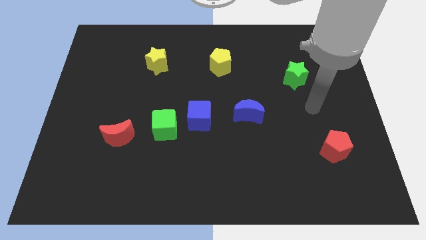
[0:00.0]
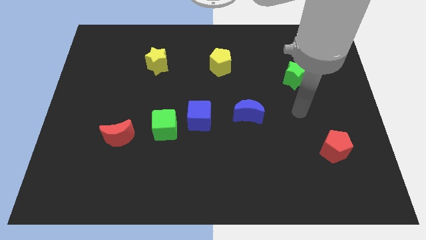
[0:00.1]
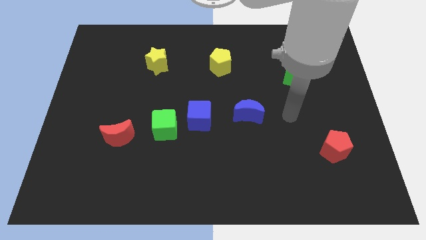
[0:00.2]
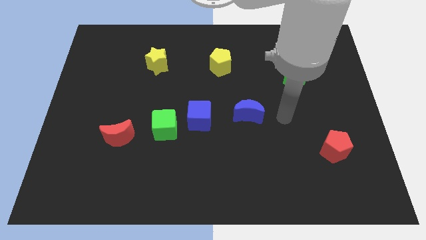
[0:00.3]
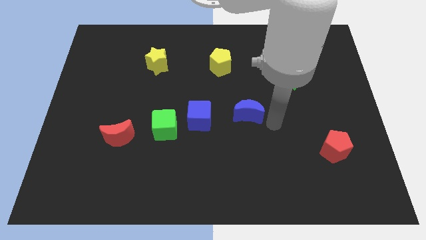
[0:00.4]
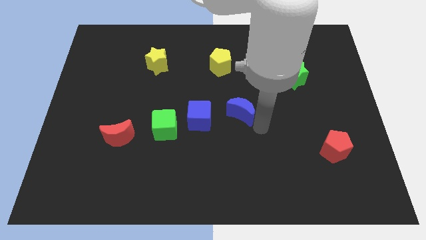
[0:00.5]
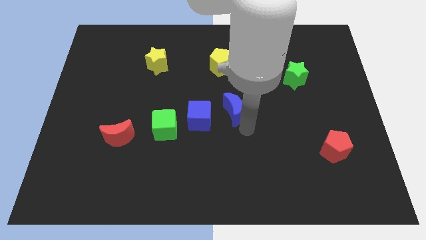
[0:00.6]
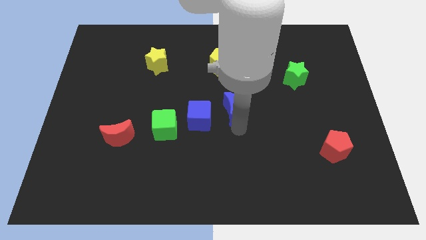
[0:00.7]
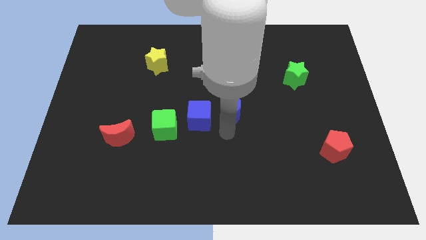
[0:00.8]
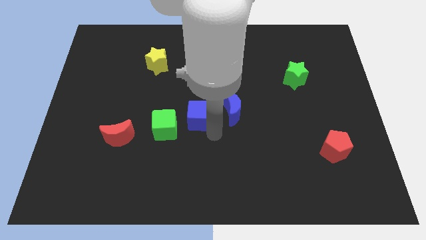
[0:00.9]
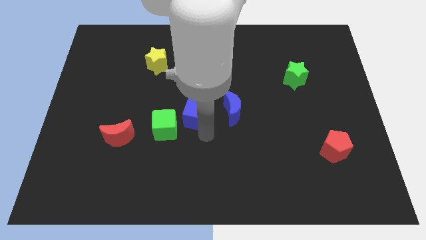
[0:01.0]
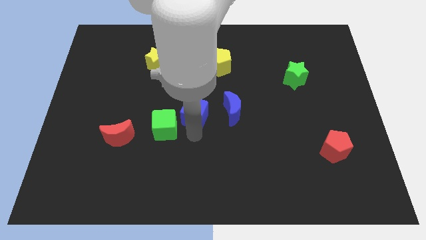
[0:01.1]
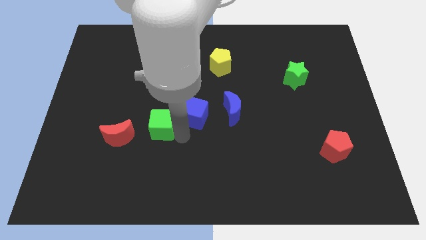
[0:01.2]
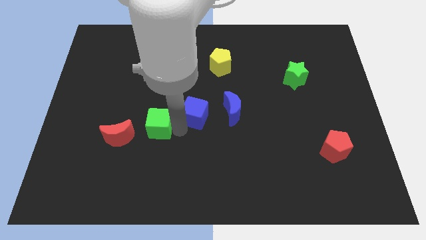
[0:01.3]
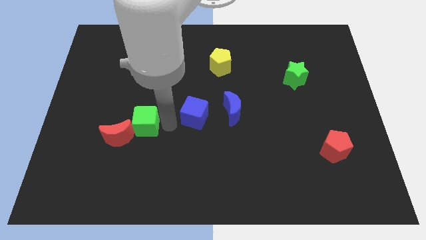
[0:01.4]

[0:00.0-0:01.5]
move the blue cube away from the green cube

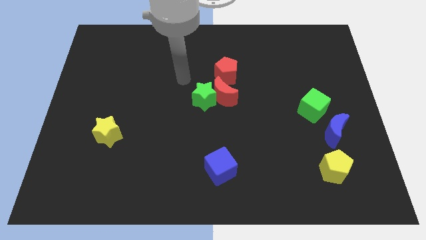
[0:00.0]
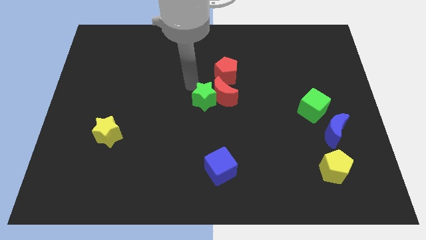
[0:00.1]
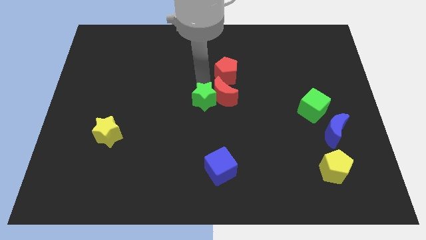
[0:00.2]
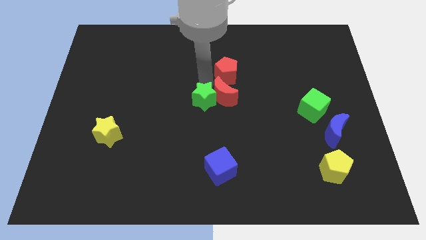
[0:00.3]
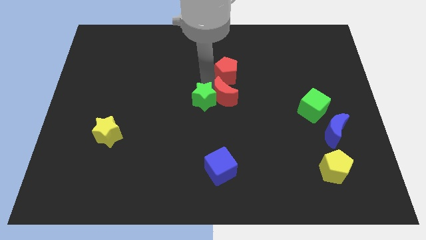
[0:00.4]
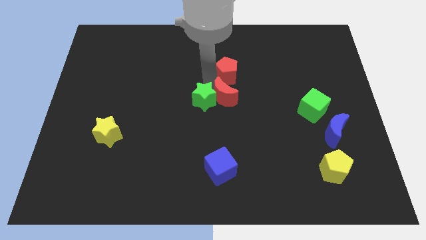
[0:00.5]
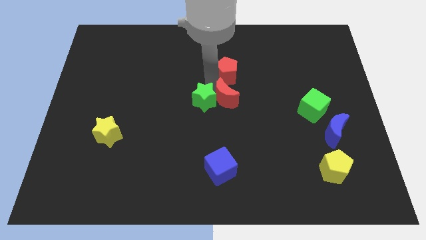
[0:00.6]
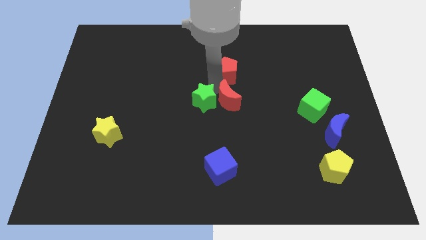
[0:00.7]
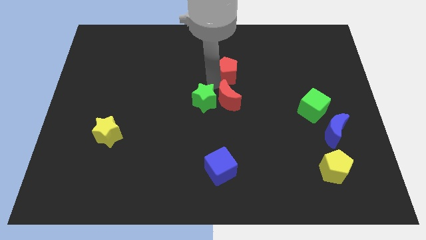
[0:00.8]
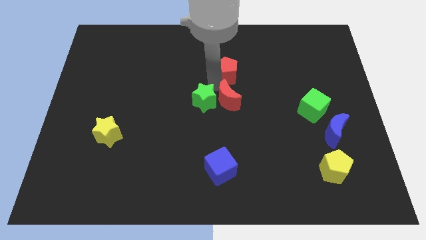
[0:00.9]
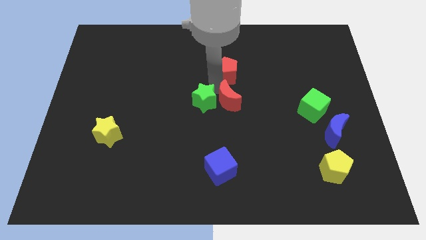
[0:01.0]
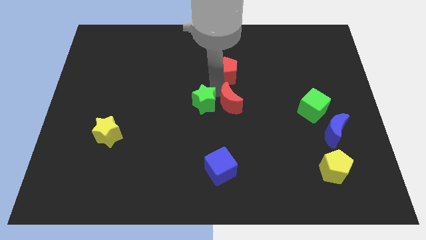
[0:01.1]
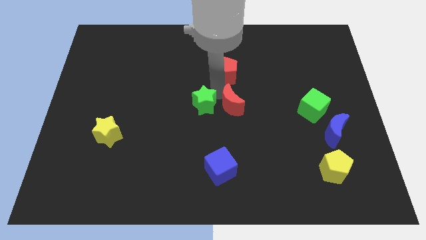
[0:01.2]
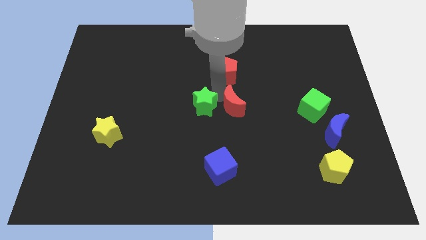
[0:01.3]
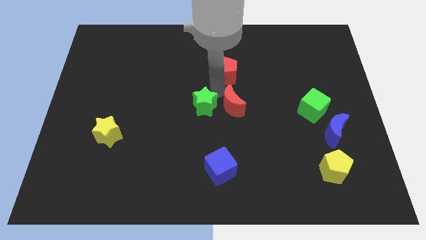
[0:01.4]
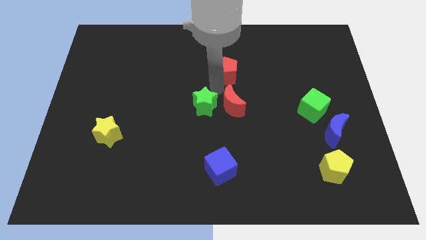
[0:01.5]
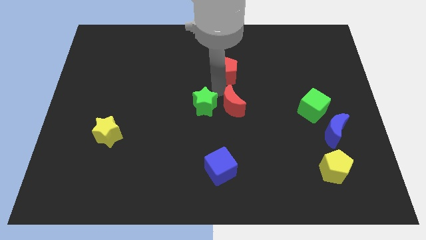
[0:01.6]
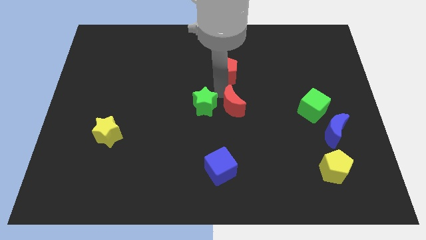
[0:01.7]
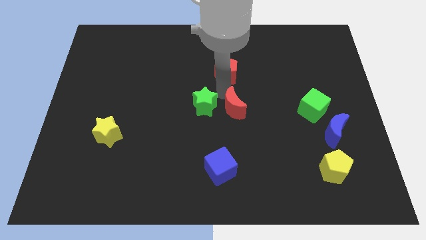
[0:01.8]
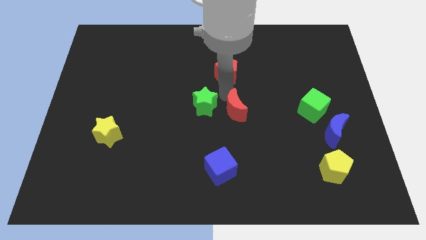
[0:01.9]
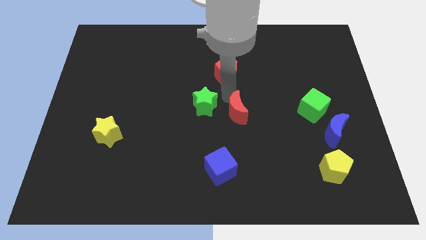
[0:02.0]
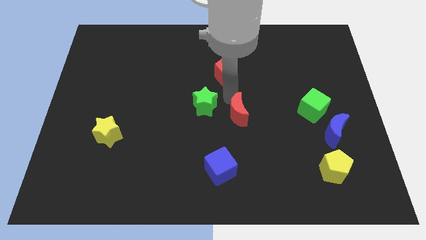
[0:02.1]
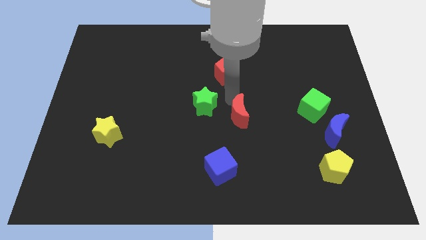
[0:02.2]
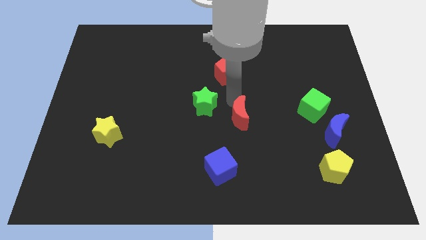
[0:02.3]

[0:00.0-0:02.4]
move the red moon away from the green star and red pentagon

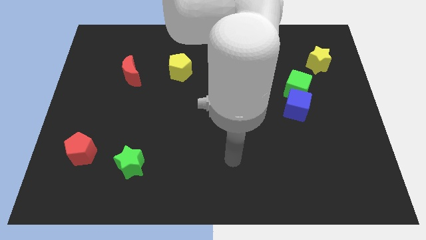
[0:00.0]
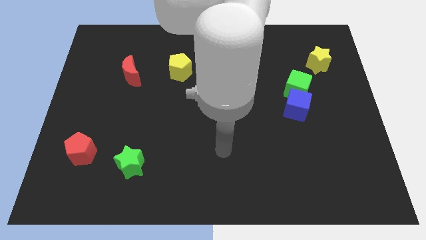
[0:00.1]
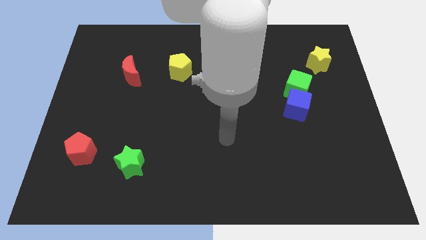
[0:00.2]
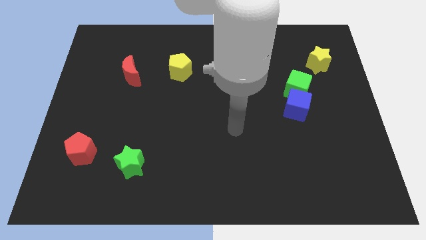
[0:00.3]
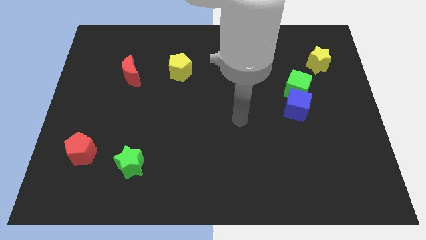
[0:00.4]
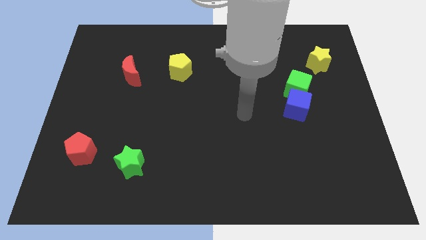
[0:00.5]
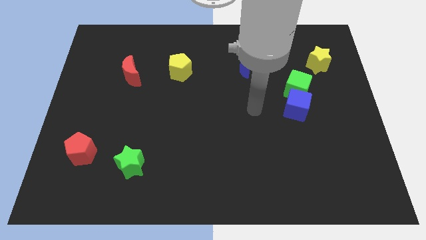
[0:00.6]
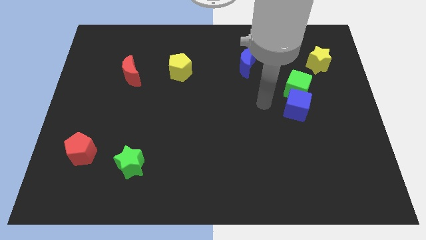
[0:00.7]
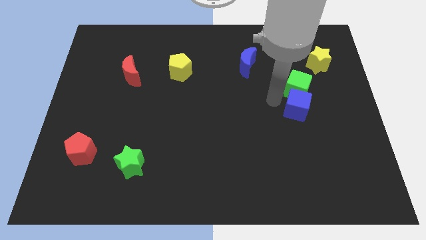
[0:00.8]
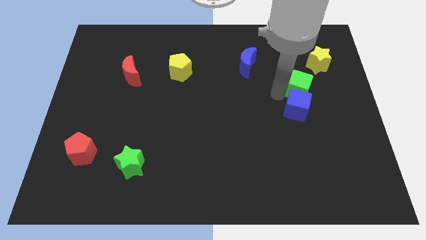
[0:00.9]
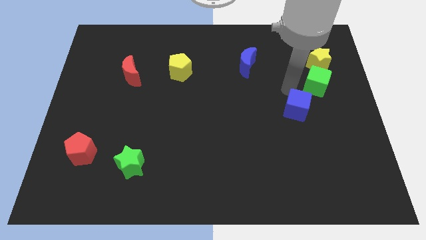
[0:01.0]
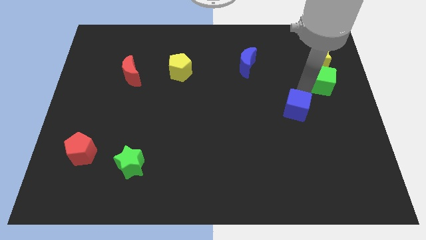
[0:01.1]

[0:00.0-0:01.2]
separate the blue cube from the green cube

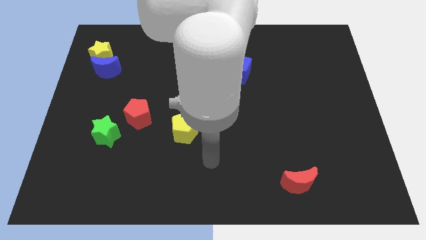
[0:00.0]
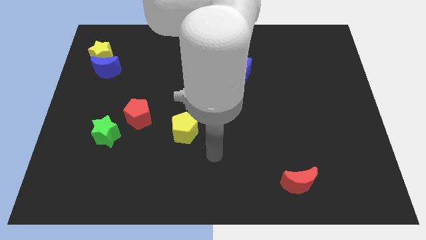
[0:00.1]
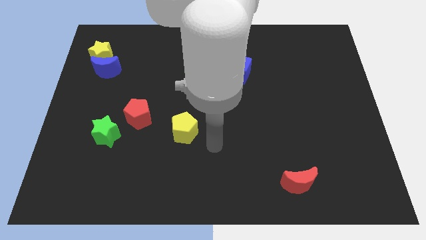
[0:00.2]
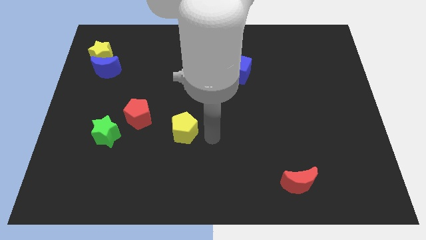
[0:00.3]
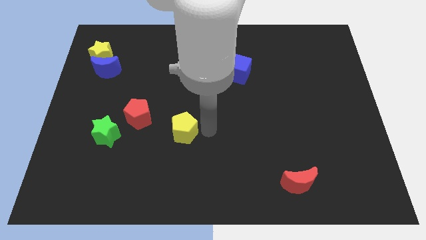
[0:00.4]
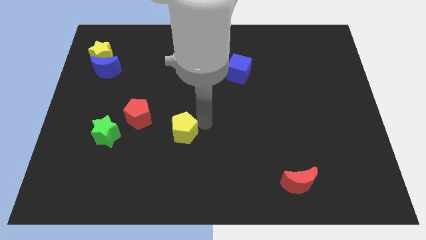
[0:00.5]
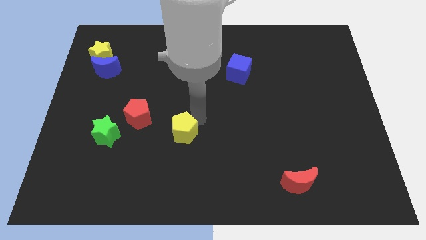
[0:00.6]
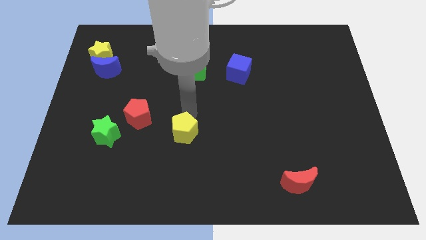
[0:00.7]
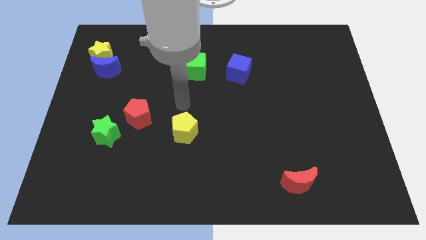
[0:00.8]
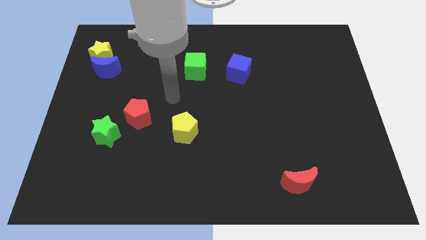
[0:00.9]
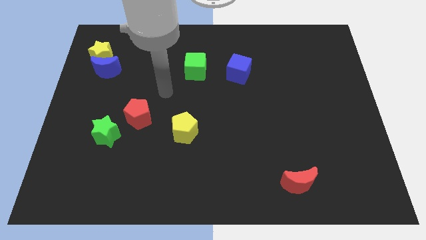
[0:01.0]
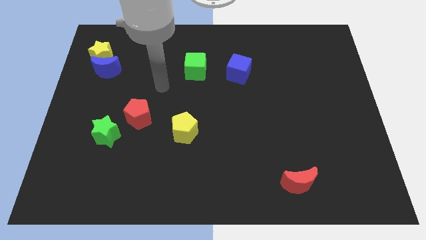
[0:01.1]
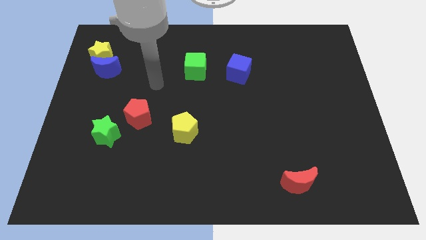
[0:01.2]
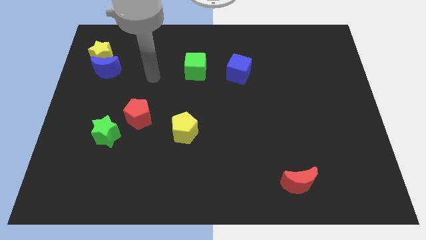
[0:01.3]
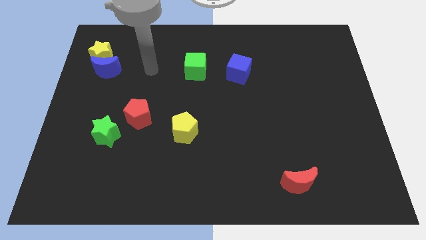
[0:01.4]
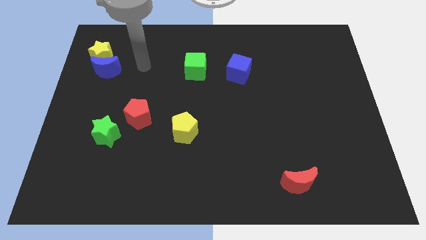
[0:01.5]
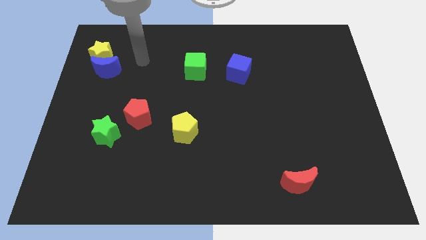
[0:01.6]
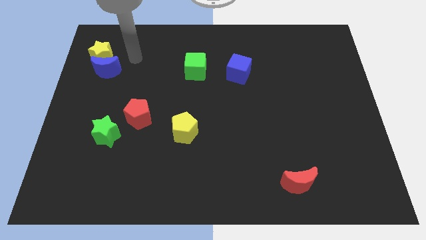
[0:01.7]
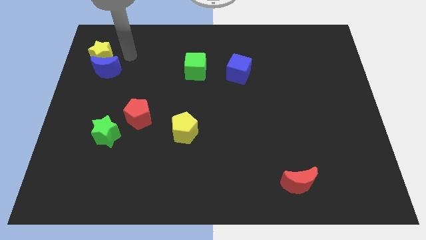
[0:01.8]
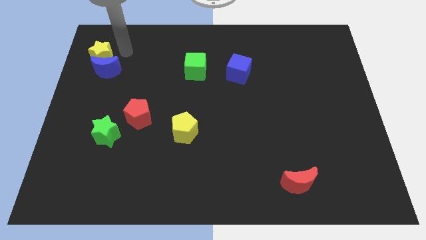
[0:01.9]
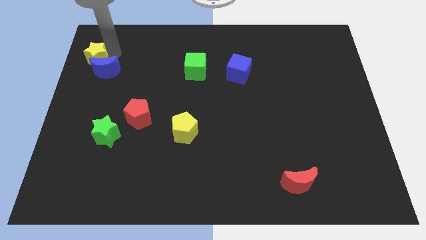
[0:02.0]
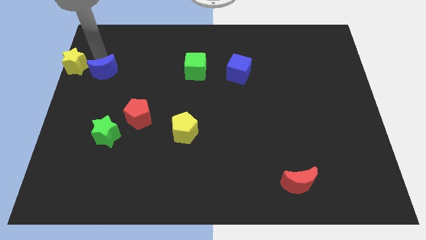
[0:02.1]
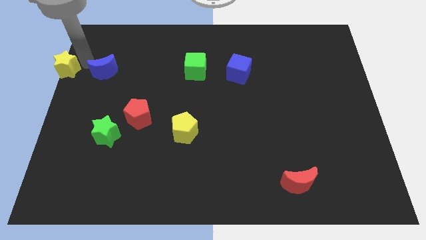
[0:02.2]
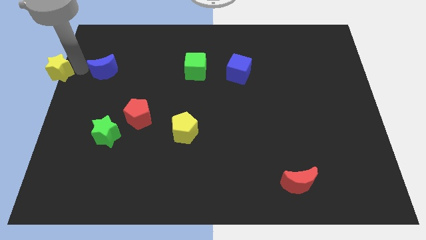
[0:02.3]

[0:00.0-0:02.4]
separate the blue moon from the yellow star

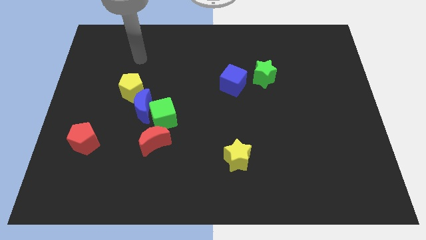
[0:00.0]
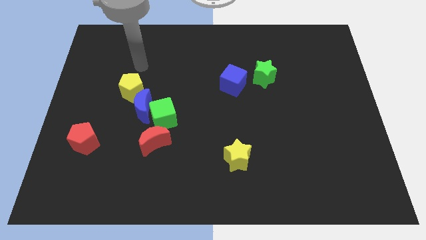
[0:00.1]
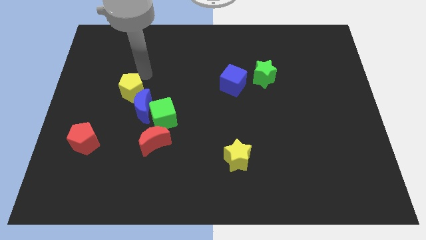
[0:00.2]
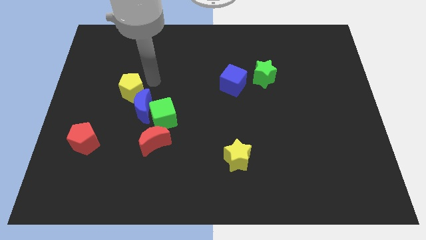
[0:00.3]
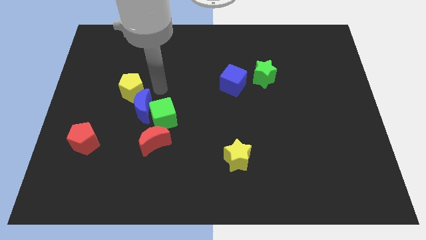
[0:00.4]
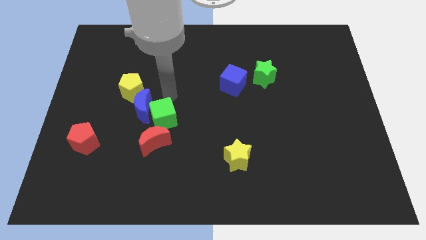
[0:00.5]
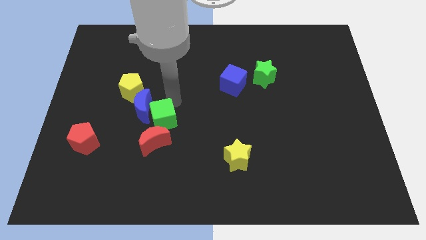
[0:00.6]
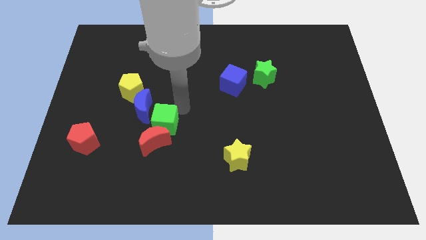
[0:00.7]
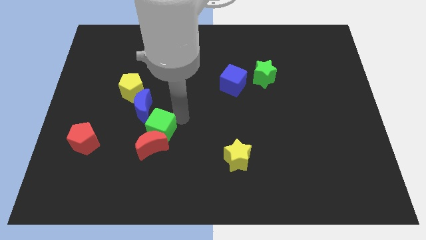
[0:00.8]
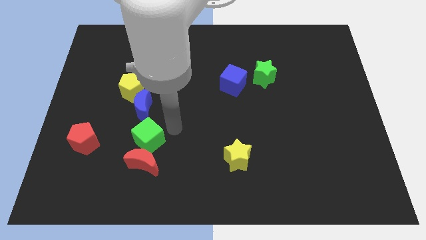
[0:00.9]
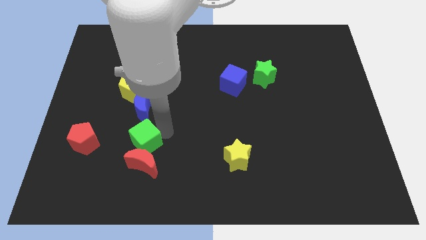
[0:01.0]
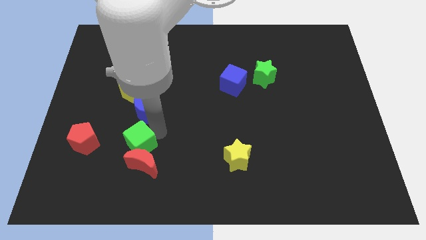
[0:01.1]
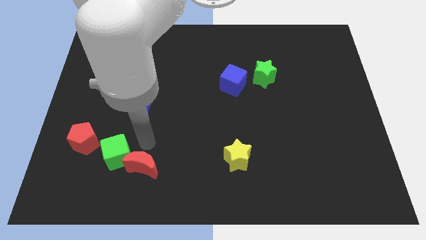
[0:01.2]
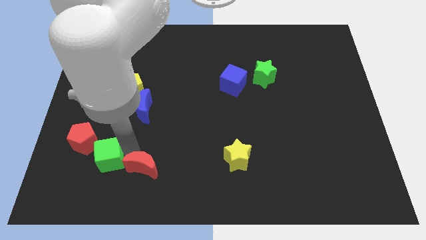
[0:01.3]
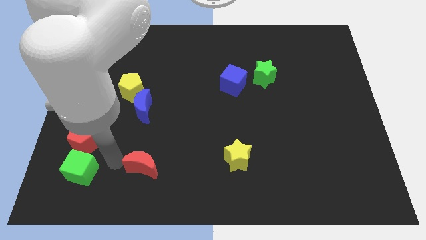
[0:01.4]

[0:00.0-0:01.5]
pull the green cube apart from the blue moon and red moon

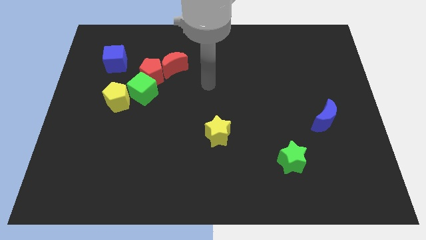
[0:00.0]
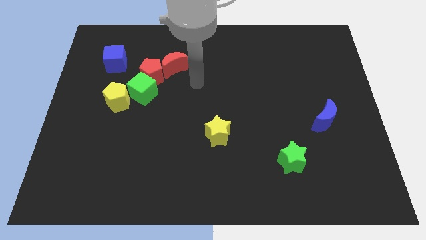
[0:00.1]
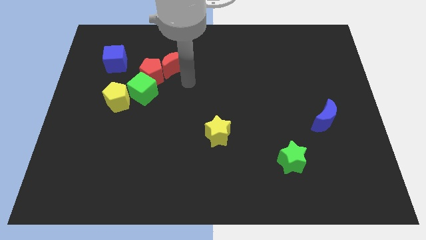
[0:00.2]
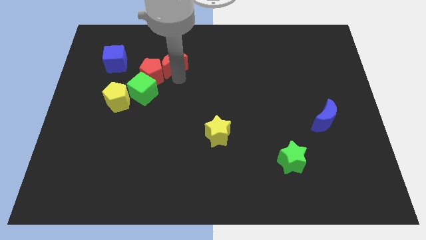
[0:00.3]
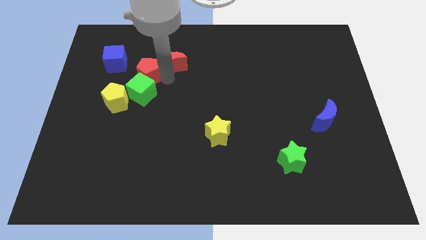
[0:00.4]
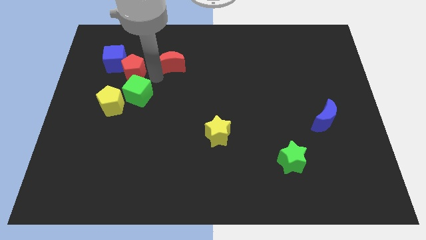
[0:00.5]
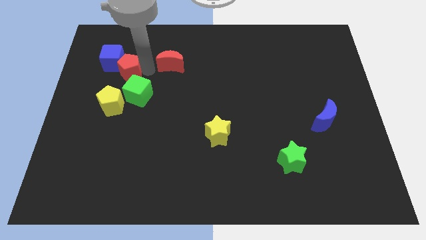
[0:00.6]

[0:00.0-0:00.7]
separate the red moon from the red pentagon
